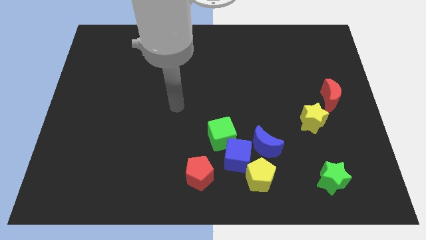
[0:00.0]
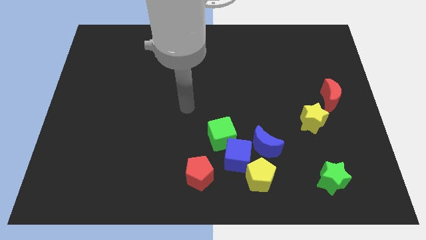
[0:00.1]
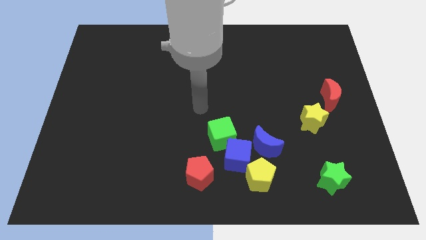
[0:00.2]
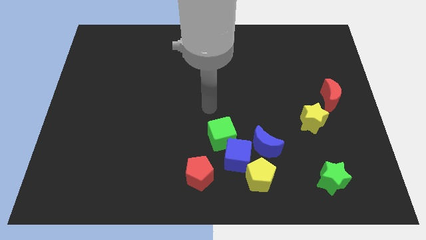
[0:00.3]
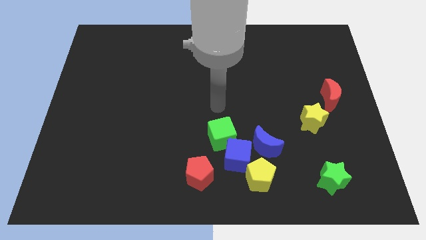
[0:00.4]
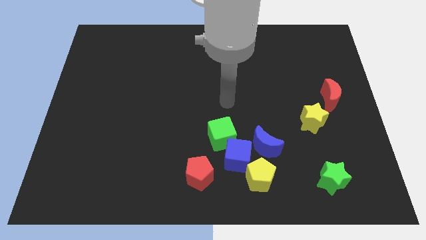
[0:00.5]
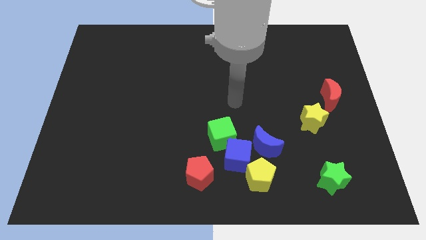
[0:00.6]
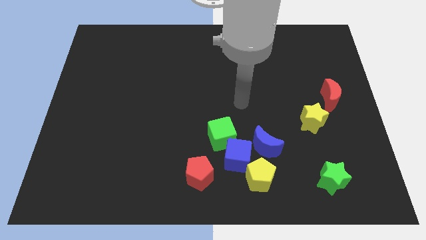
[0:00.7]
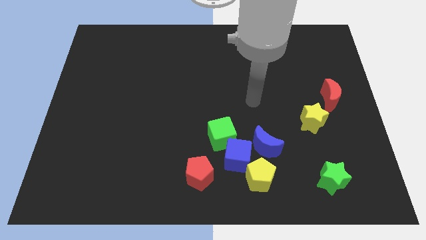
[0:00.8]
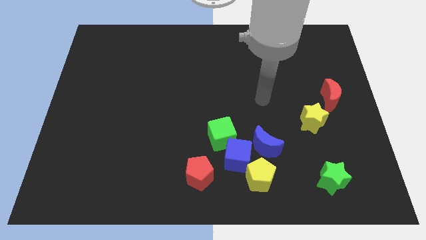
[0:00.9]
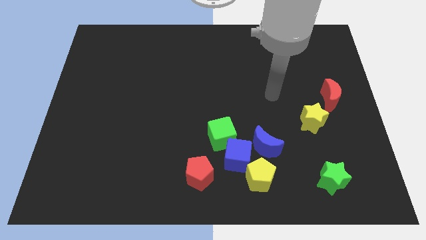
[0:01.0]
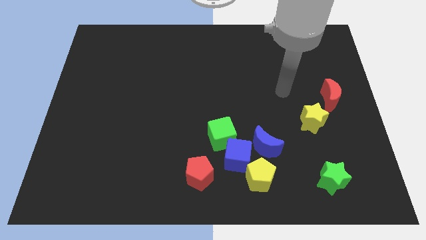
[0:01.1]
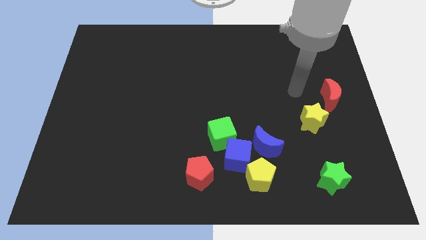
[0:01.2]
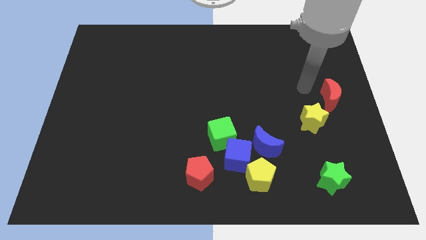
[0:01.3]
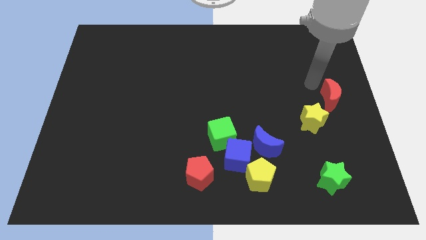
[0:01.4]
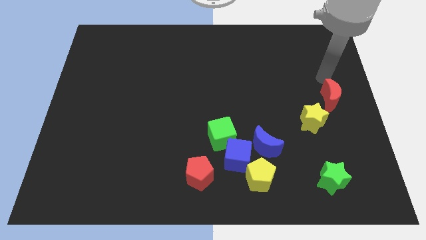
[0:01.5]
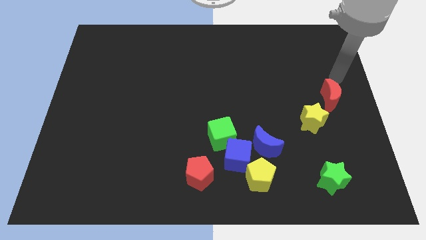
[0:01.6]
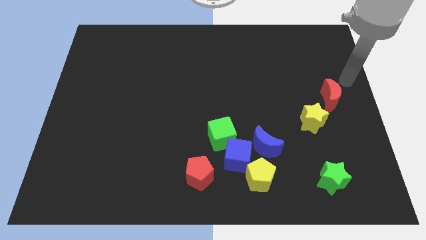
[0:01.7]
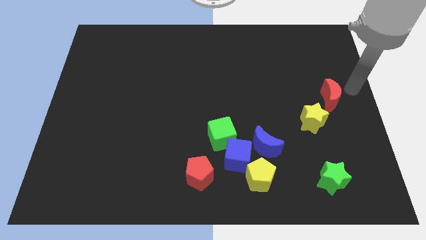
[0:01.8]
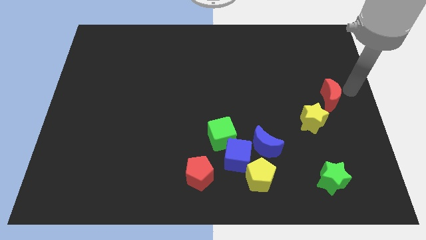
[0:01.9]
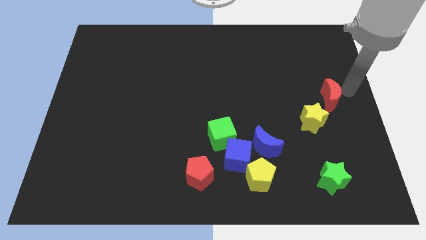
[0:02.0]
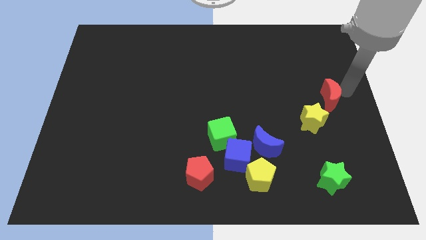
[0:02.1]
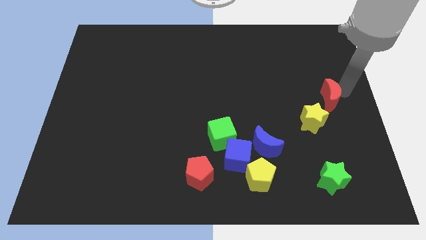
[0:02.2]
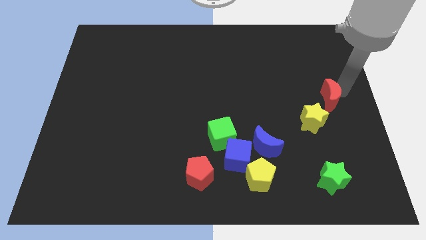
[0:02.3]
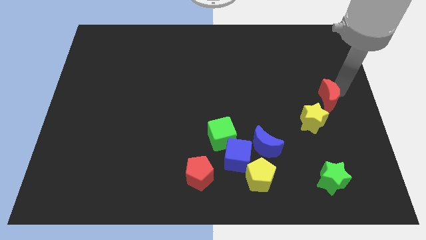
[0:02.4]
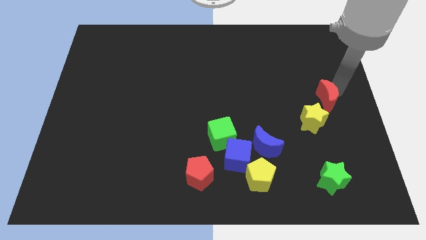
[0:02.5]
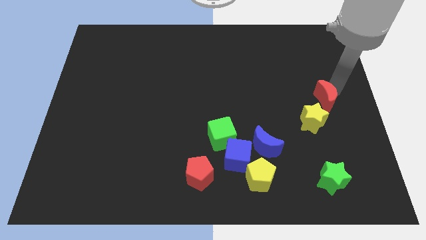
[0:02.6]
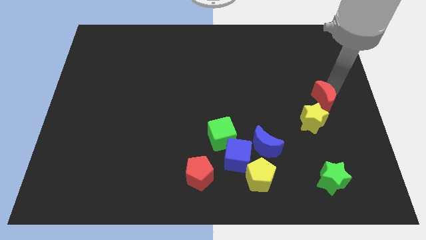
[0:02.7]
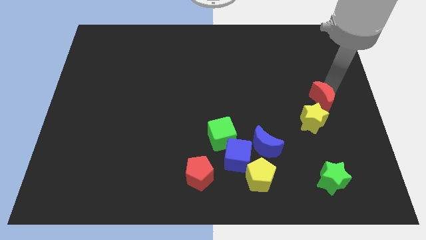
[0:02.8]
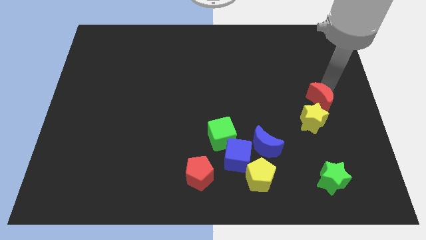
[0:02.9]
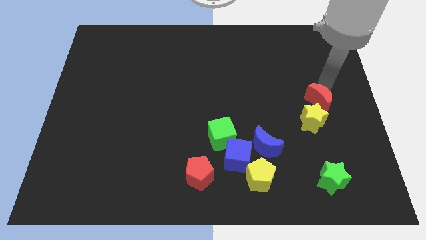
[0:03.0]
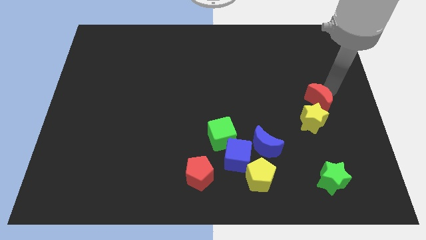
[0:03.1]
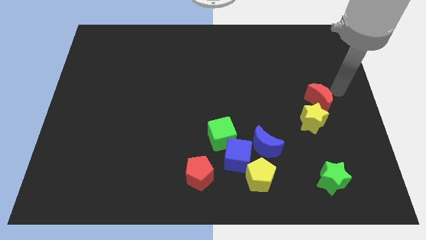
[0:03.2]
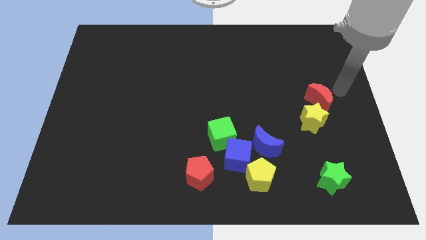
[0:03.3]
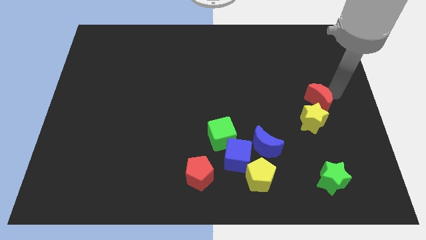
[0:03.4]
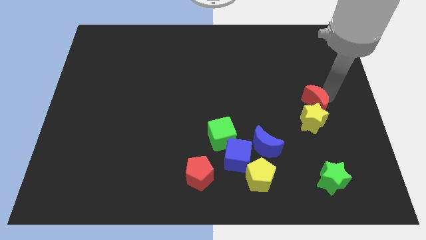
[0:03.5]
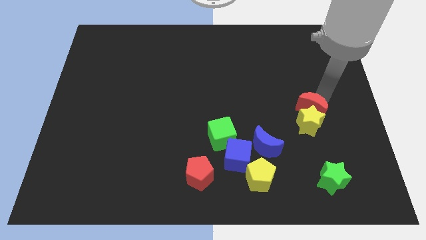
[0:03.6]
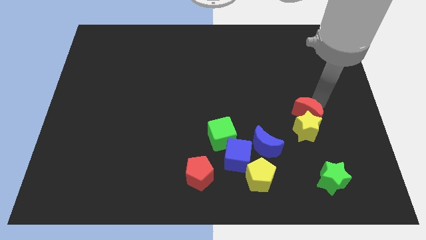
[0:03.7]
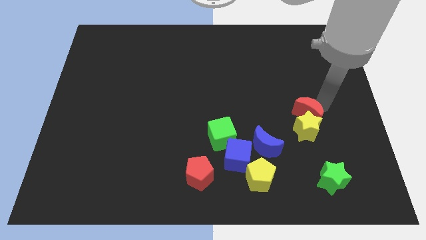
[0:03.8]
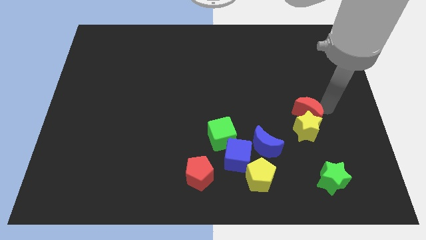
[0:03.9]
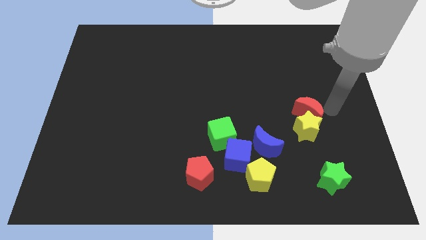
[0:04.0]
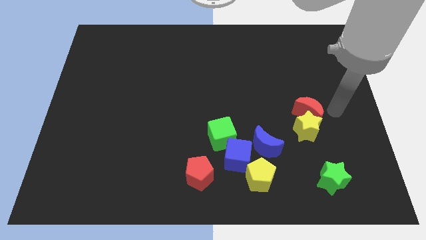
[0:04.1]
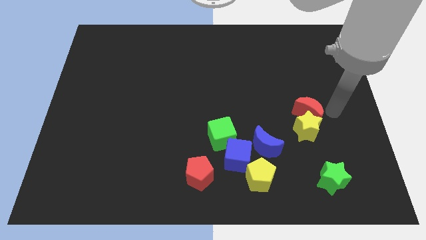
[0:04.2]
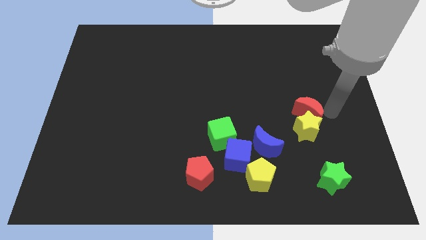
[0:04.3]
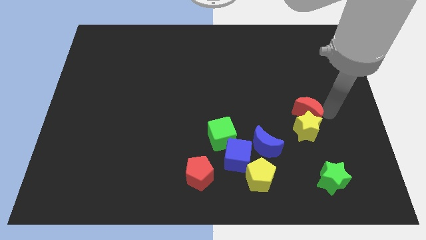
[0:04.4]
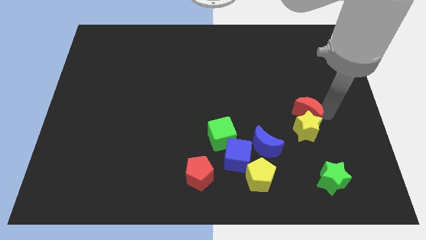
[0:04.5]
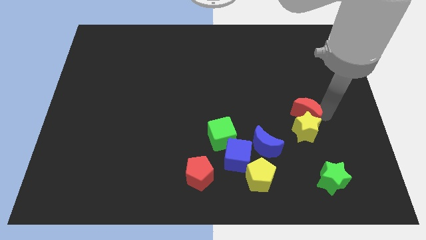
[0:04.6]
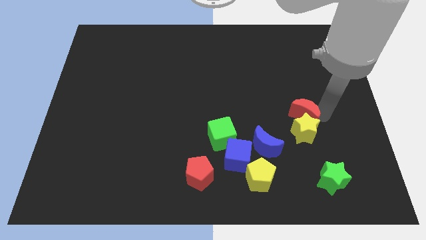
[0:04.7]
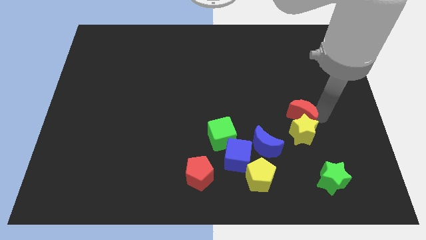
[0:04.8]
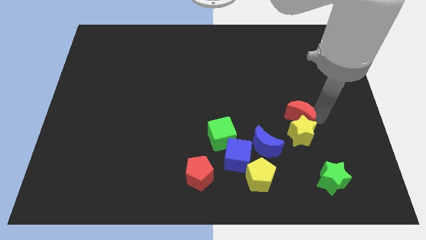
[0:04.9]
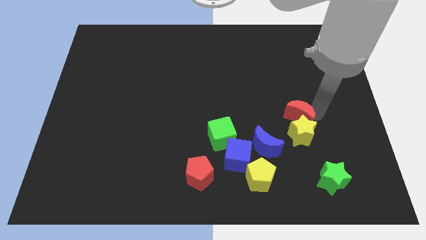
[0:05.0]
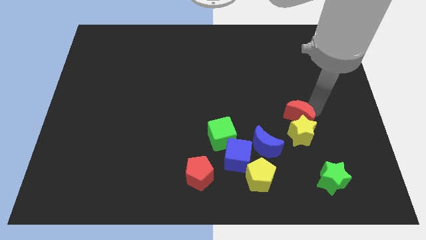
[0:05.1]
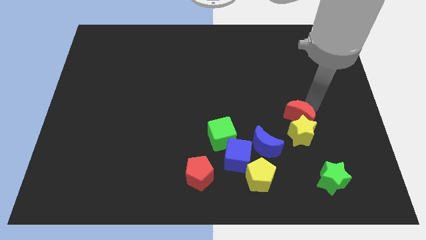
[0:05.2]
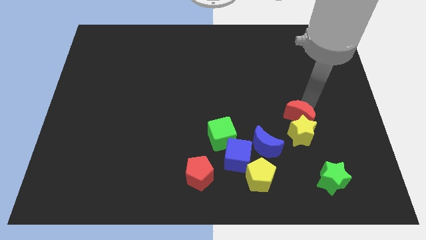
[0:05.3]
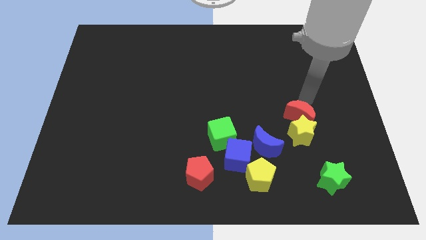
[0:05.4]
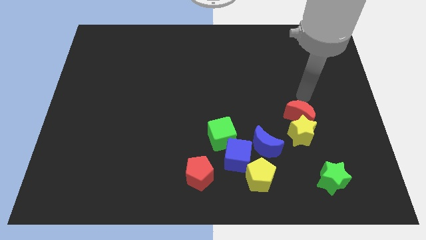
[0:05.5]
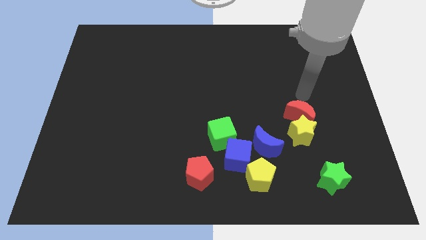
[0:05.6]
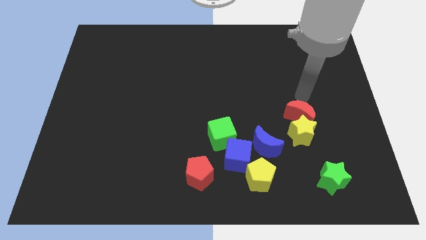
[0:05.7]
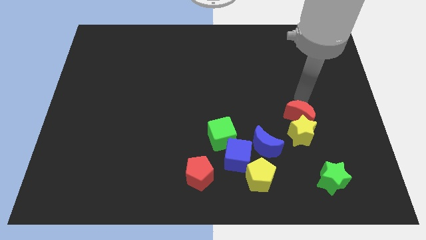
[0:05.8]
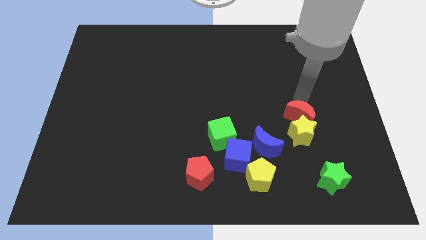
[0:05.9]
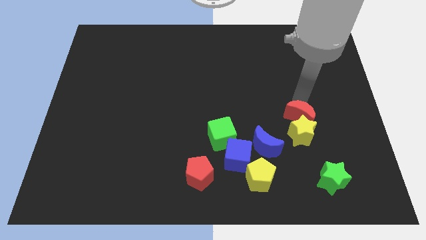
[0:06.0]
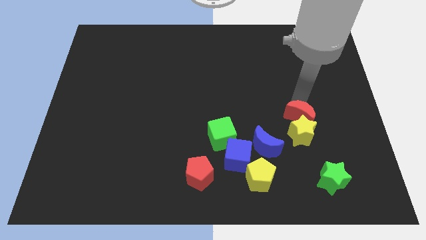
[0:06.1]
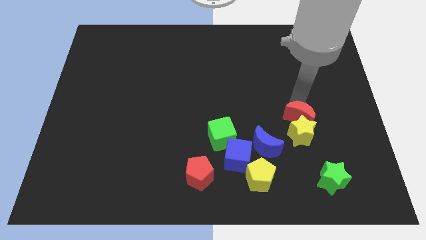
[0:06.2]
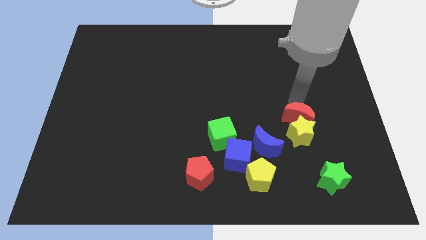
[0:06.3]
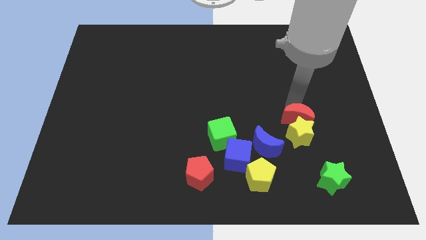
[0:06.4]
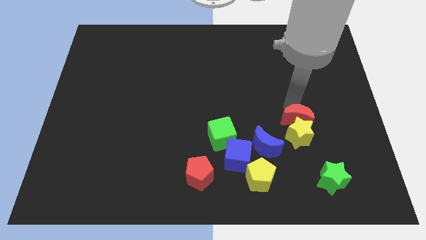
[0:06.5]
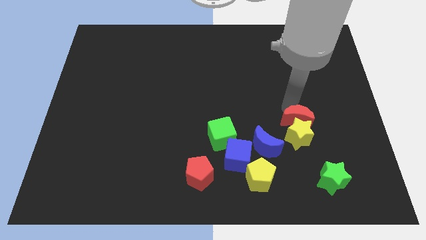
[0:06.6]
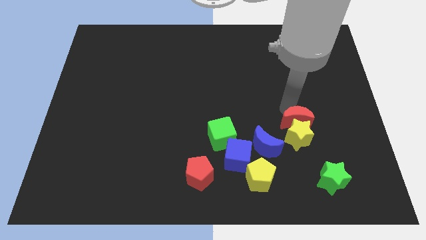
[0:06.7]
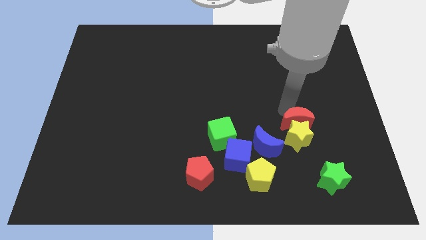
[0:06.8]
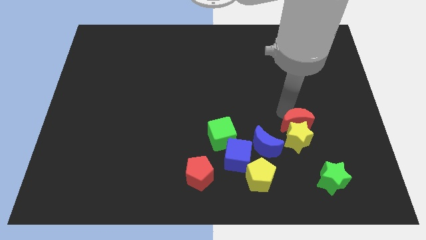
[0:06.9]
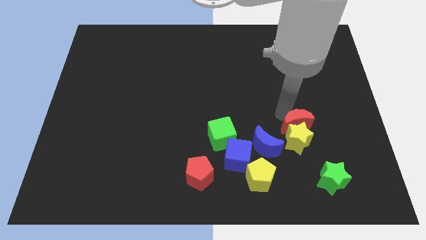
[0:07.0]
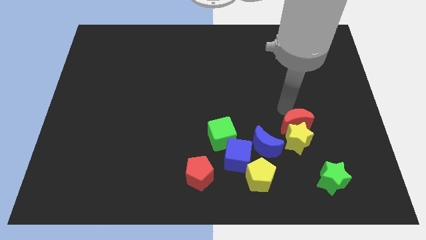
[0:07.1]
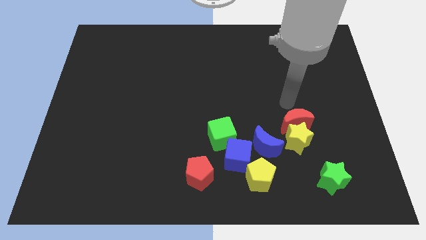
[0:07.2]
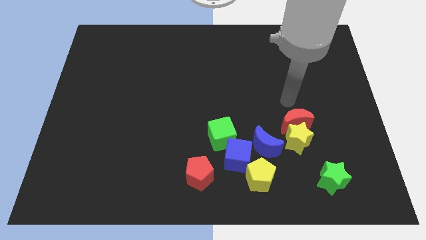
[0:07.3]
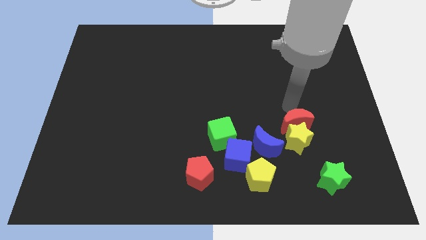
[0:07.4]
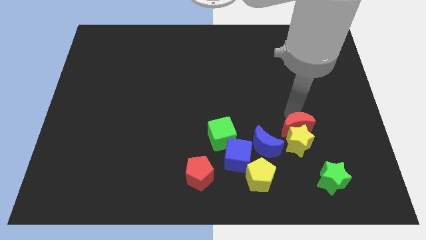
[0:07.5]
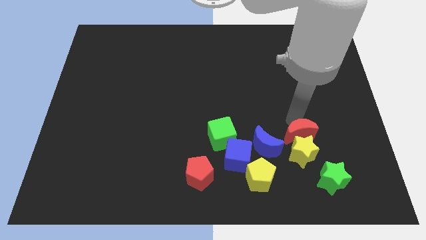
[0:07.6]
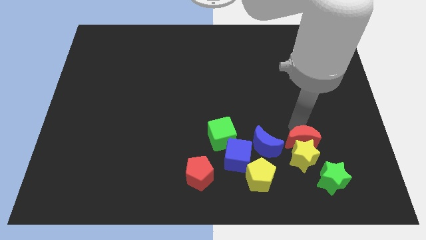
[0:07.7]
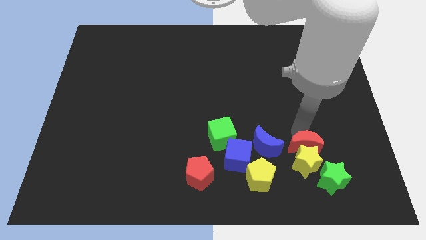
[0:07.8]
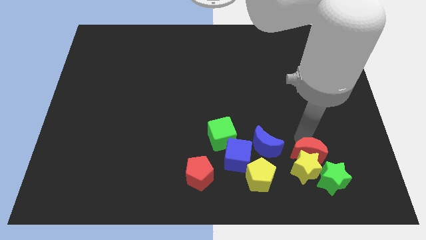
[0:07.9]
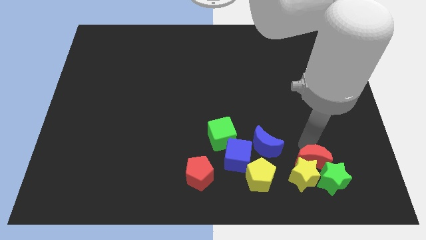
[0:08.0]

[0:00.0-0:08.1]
slide the red moon to the right of the yellow pentagon
